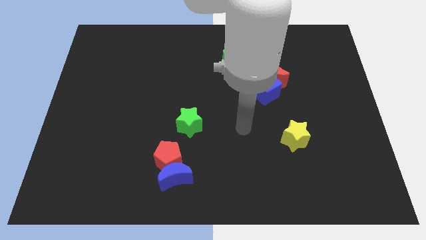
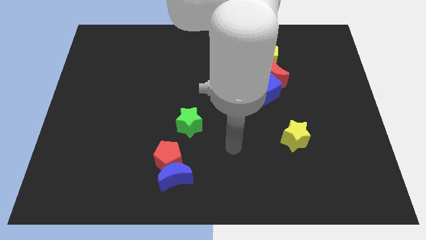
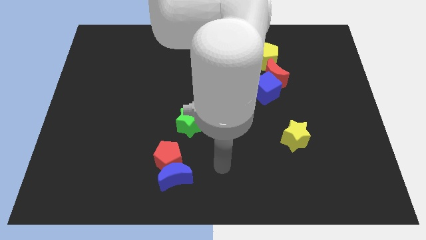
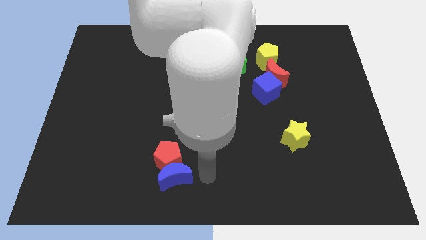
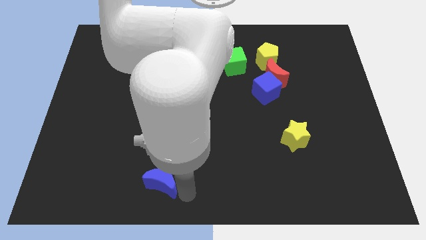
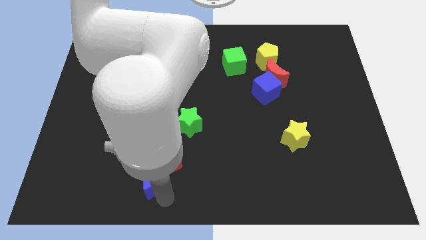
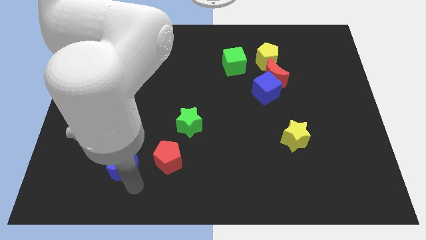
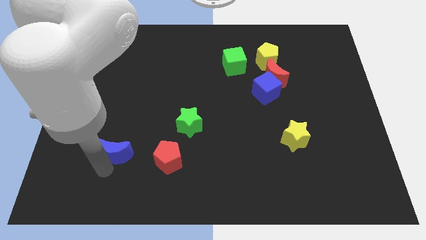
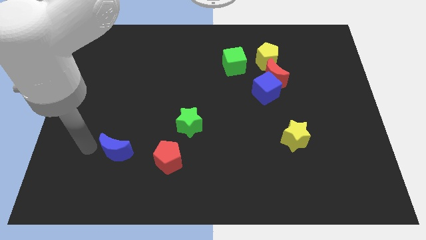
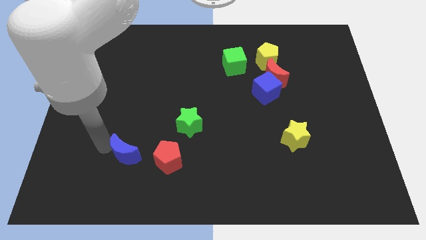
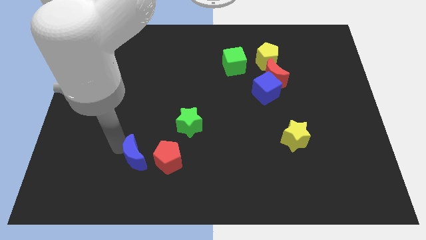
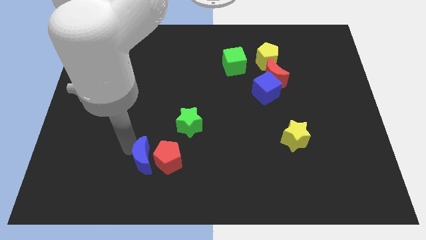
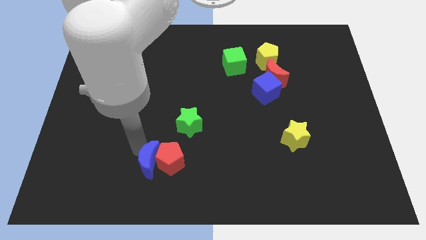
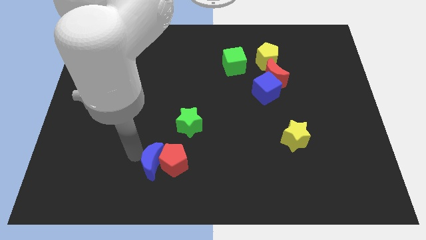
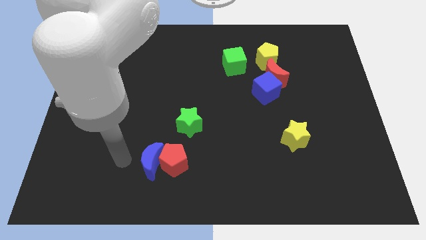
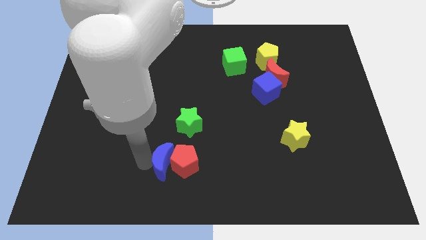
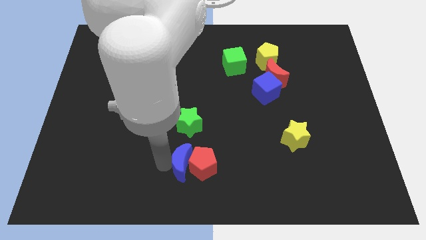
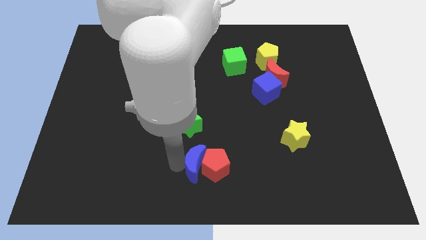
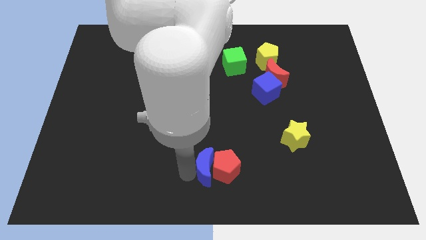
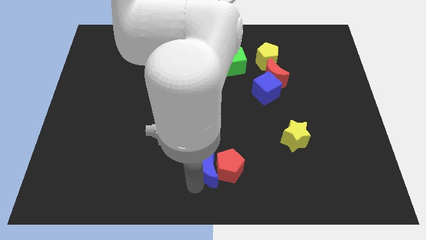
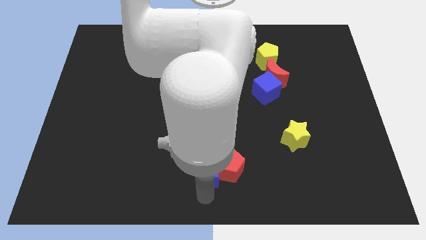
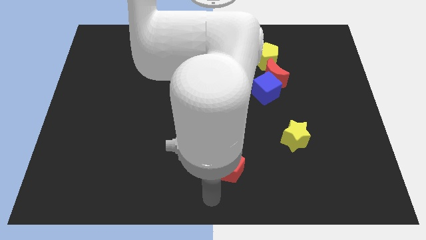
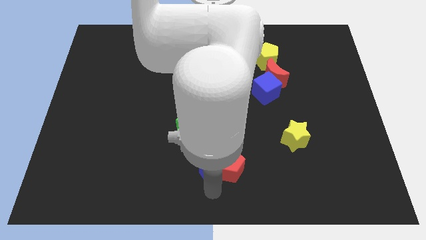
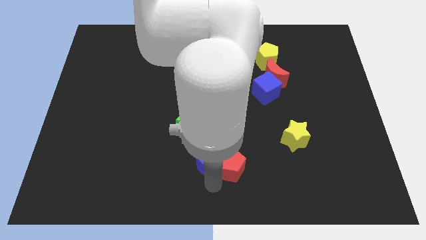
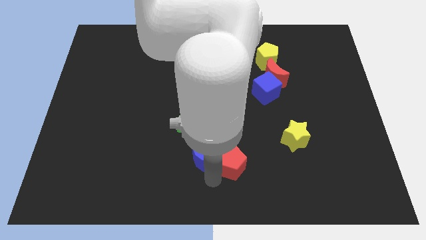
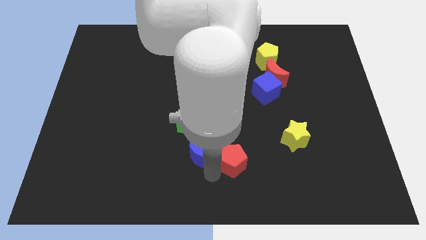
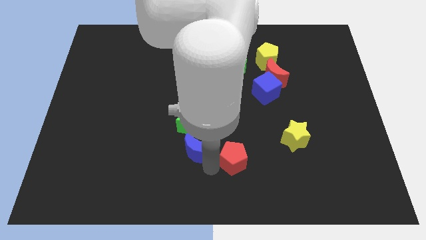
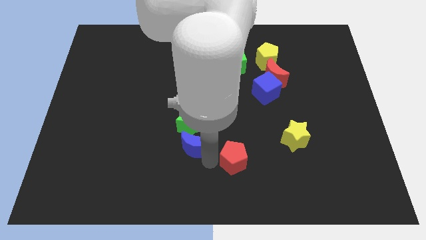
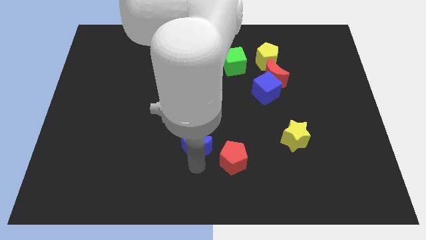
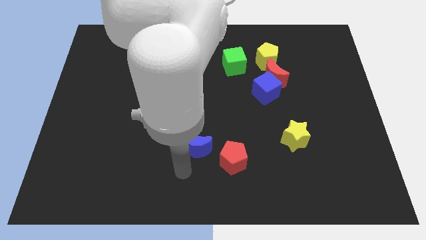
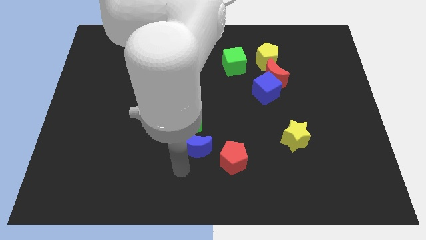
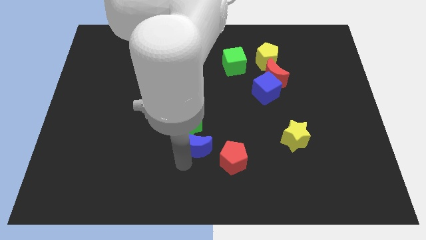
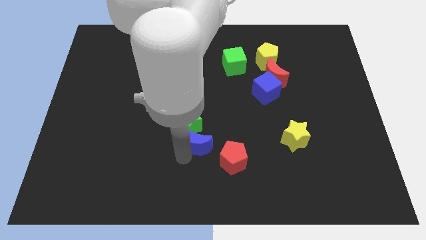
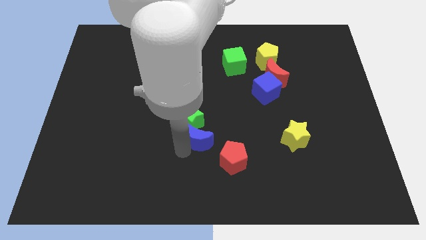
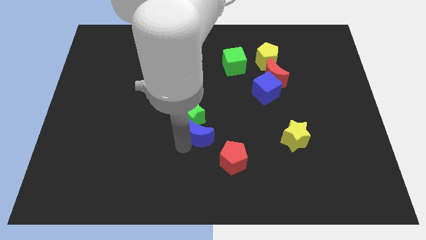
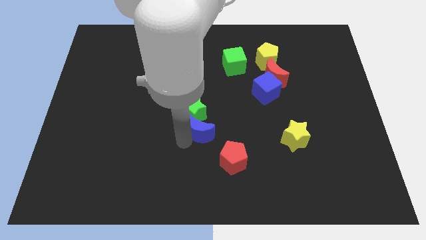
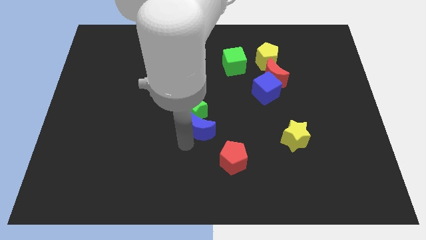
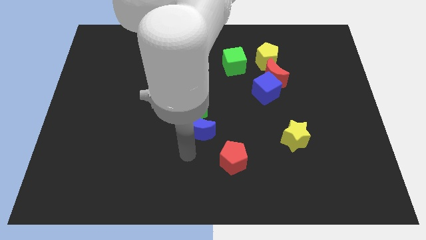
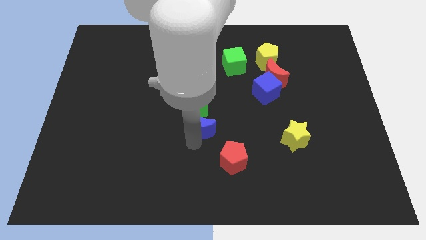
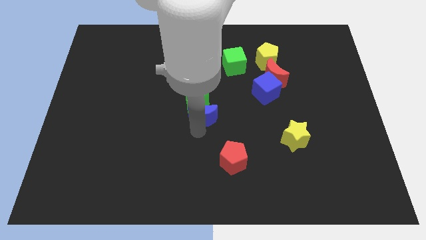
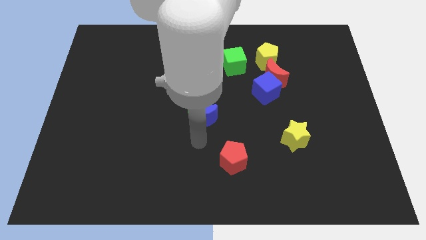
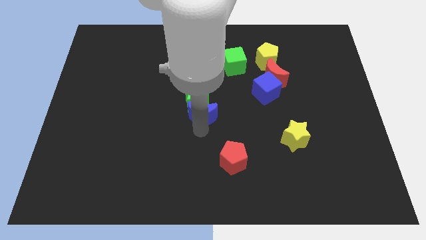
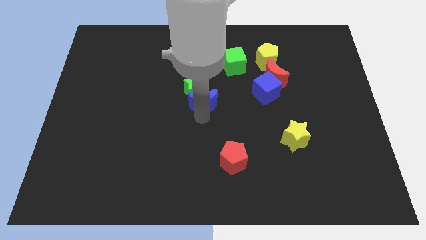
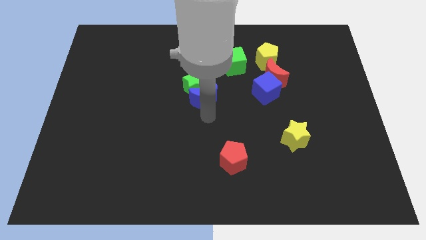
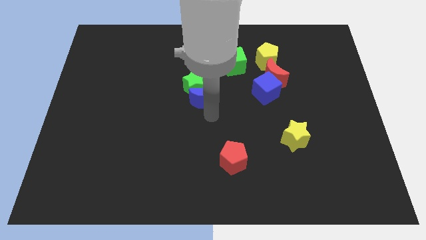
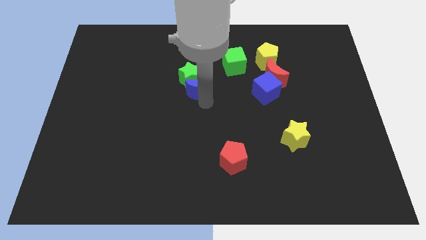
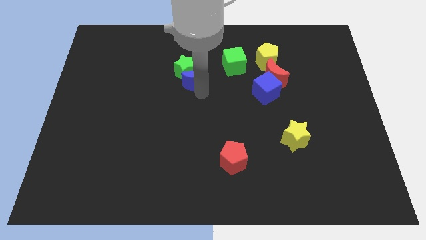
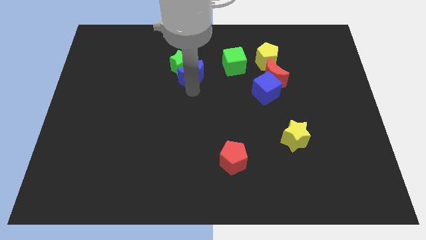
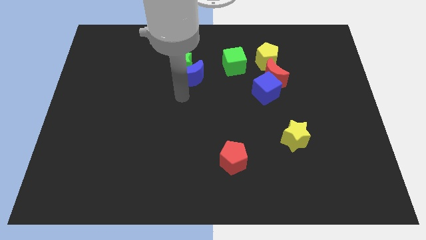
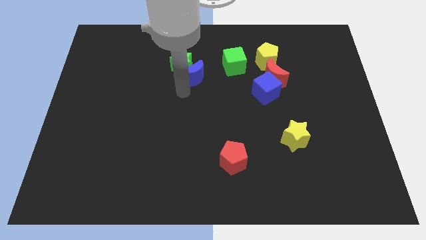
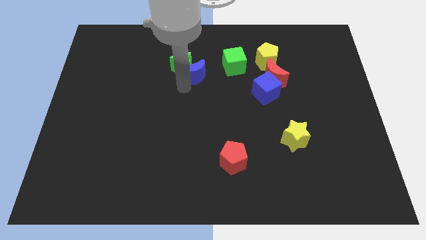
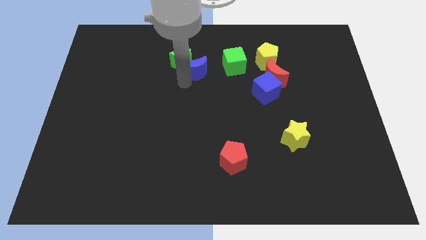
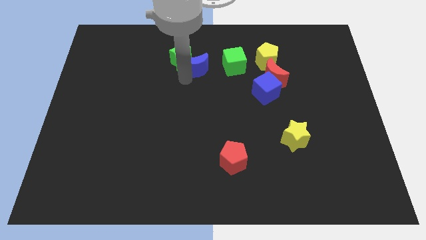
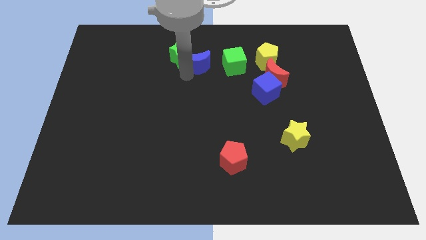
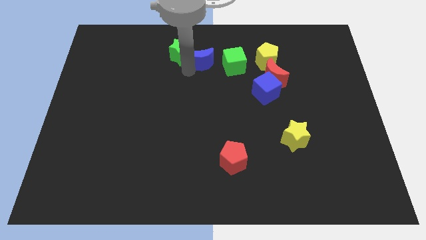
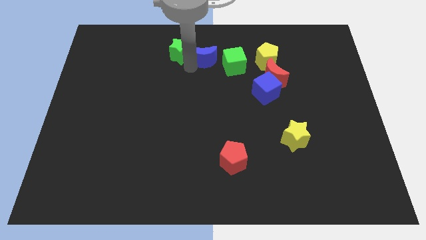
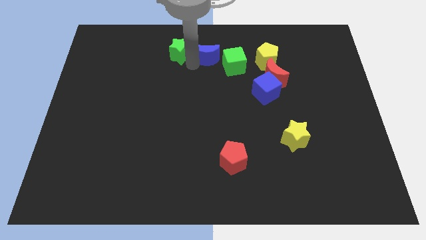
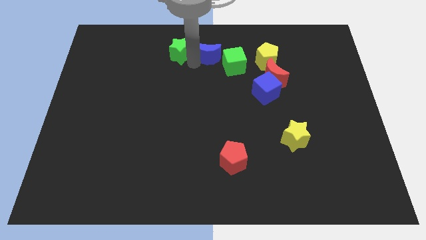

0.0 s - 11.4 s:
put the blue moon to the top side

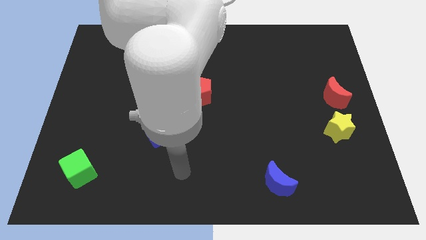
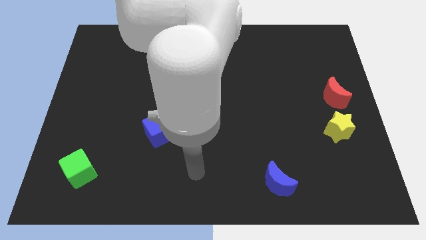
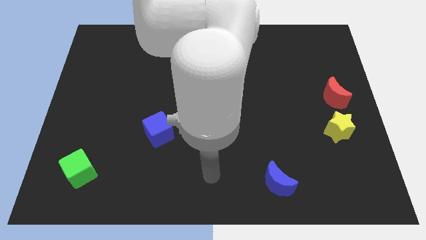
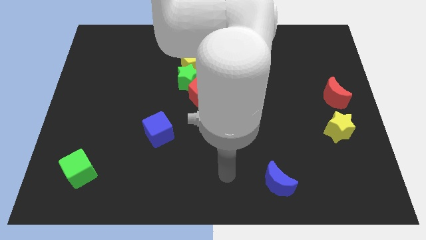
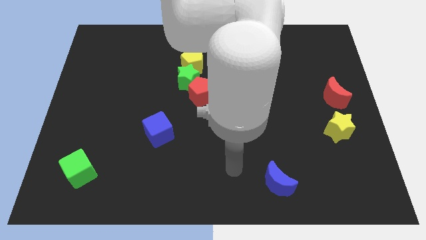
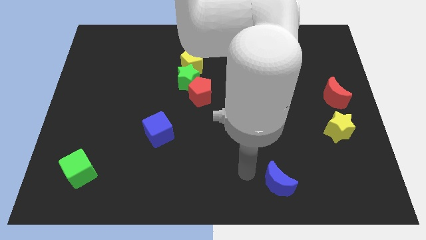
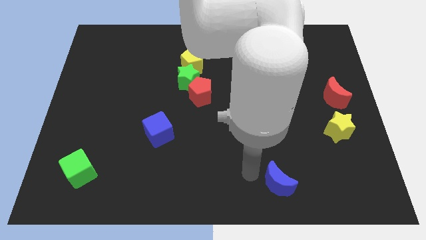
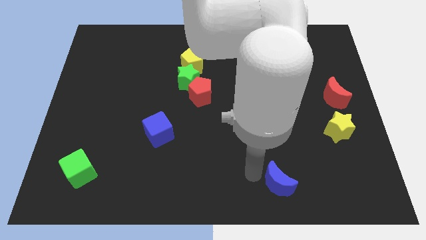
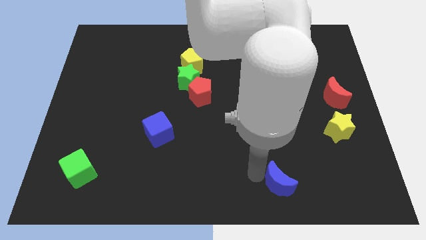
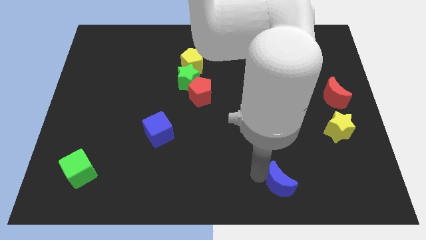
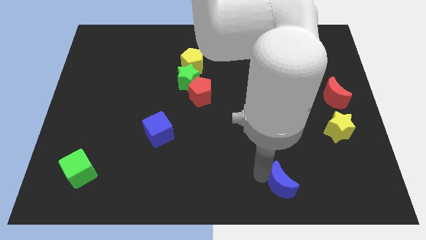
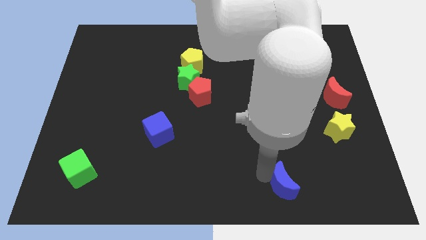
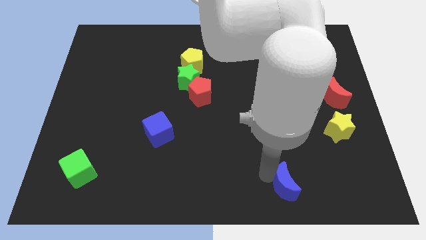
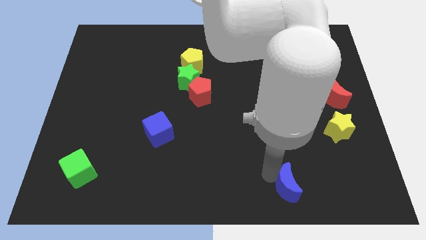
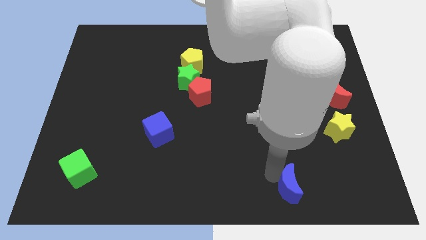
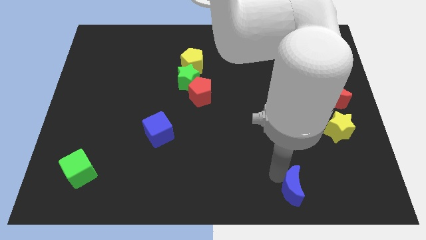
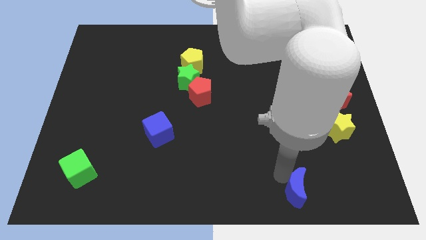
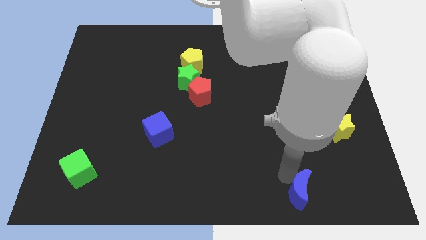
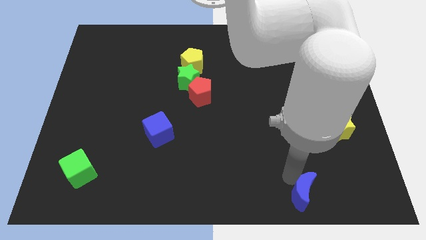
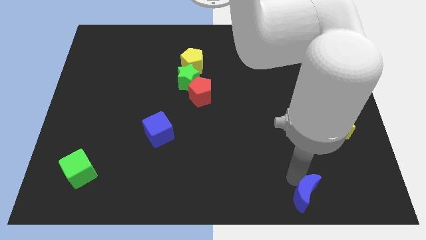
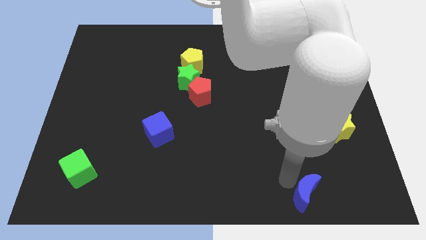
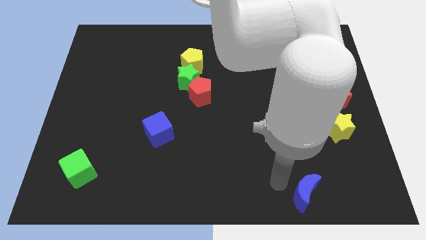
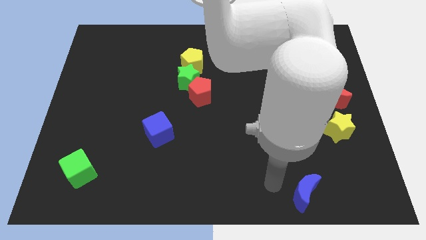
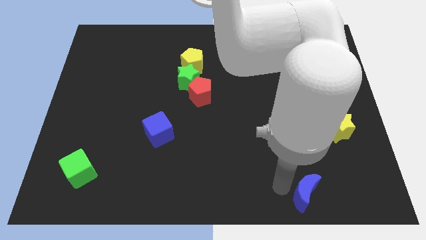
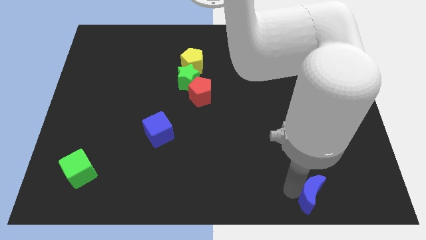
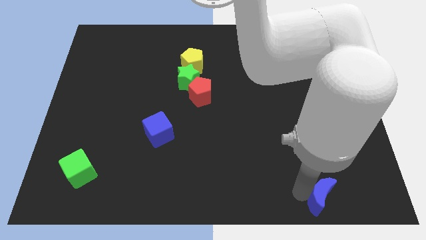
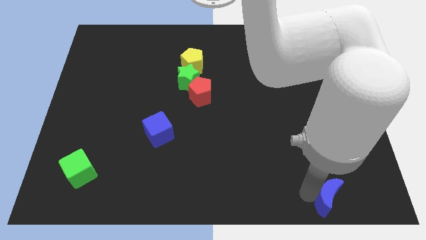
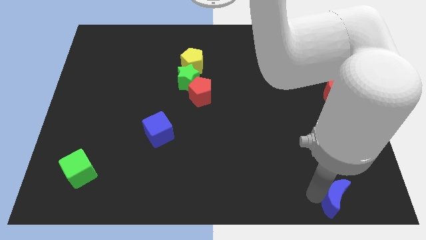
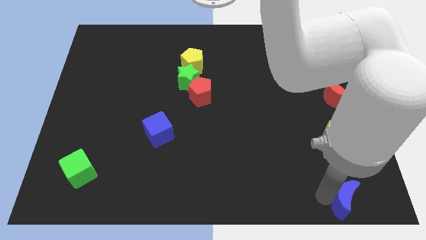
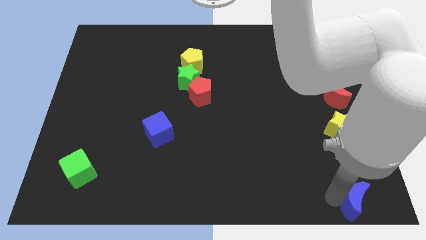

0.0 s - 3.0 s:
push the blue moon to the lower right corner
